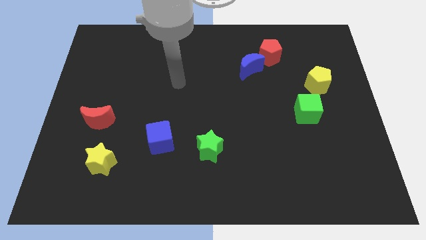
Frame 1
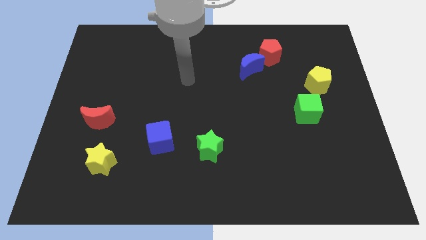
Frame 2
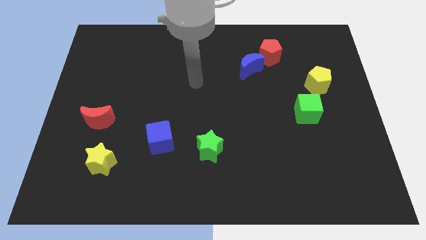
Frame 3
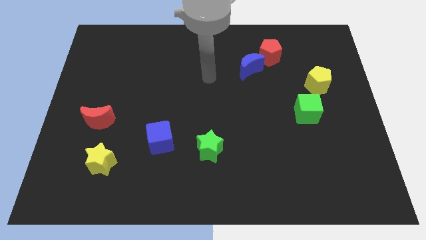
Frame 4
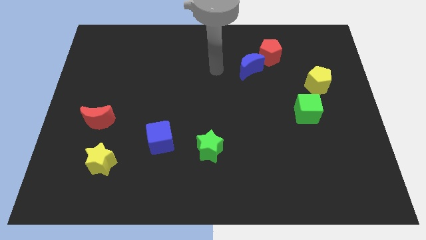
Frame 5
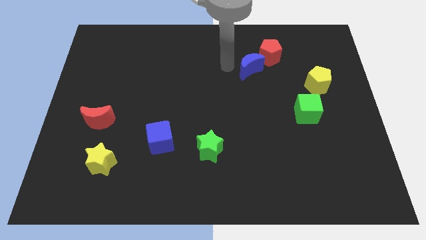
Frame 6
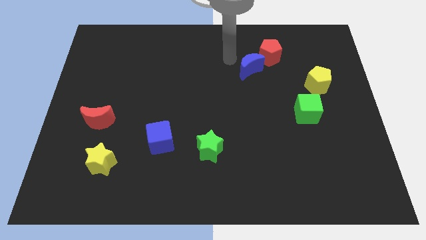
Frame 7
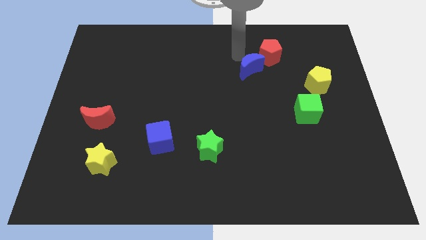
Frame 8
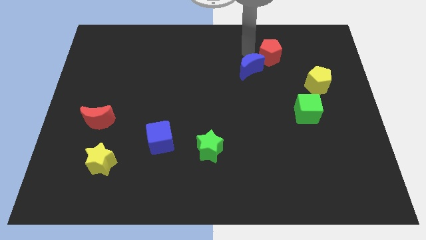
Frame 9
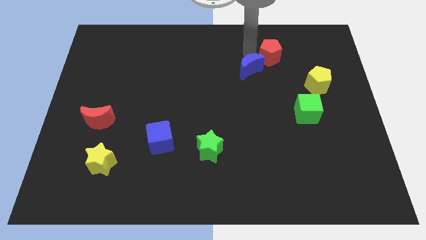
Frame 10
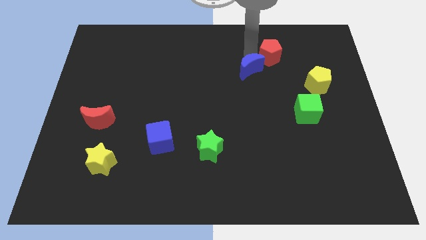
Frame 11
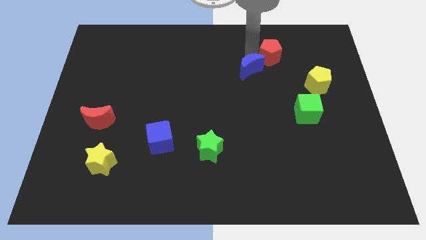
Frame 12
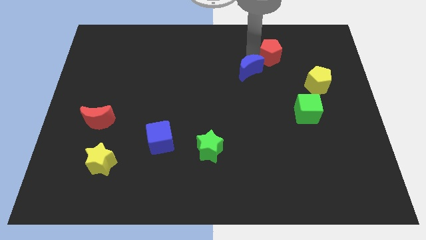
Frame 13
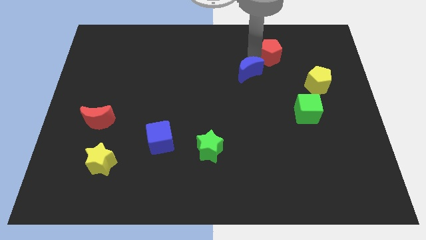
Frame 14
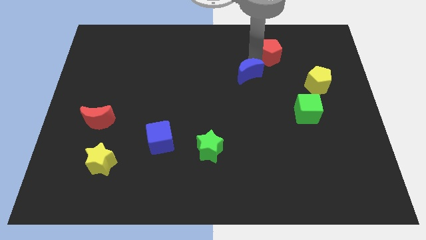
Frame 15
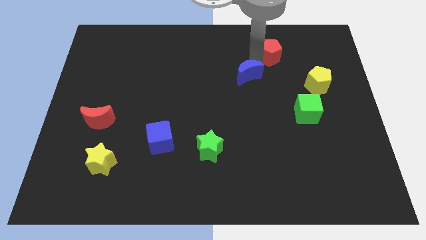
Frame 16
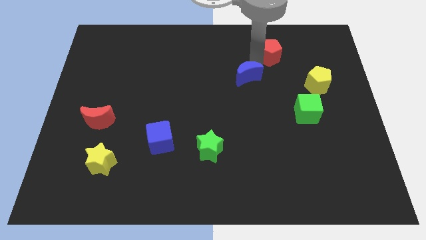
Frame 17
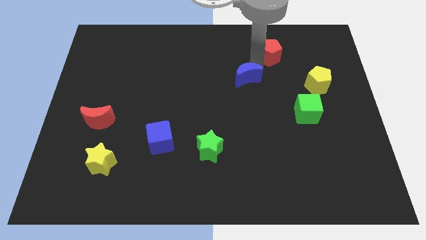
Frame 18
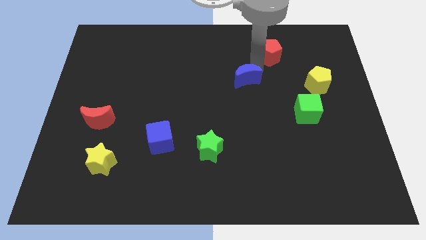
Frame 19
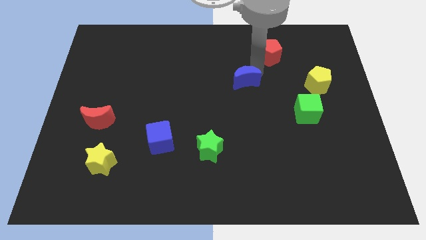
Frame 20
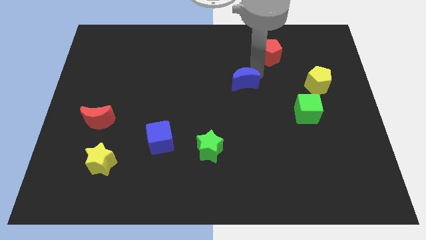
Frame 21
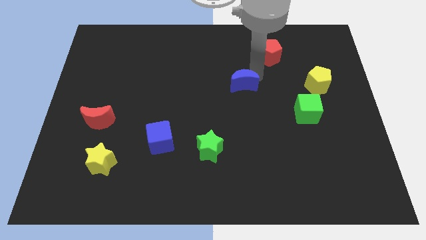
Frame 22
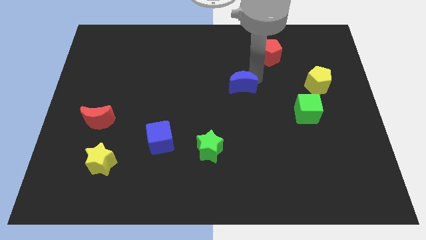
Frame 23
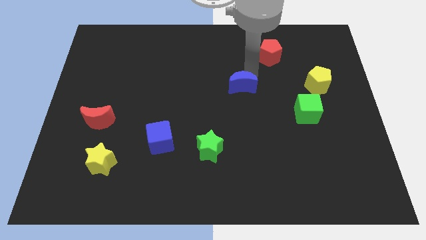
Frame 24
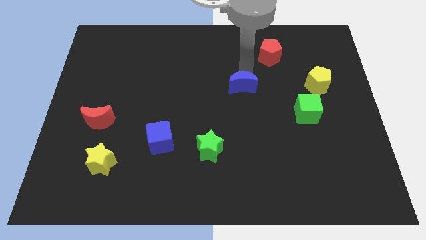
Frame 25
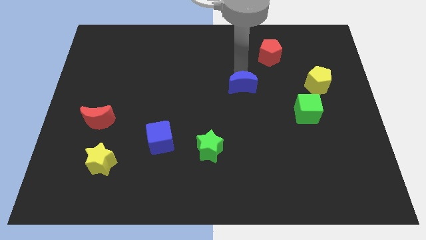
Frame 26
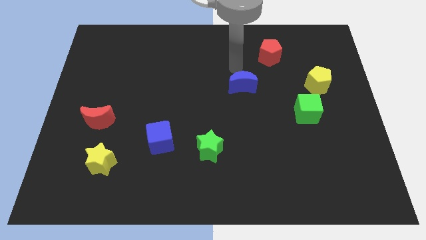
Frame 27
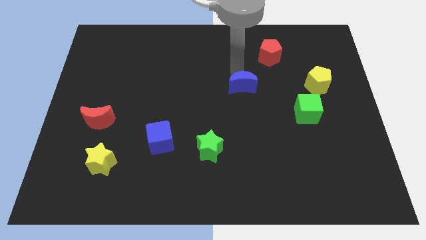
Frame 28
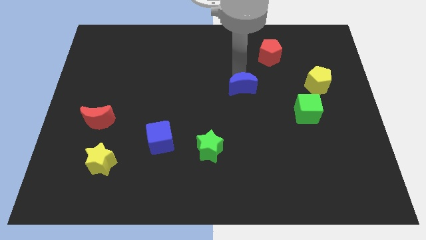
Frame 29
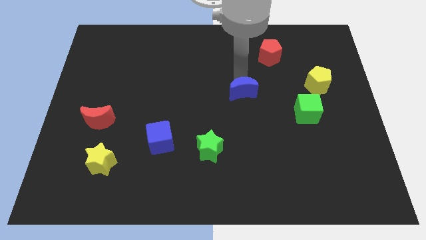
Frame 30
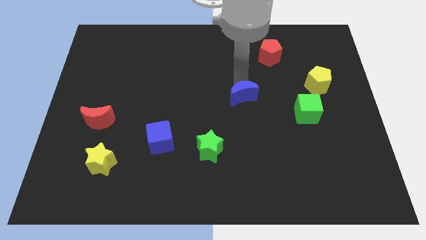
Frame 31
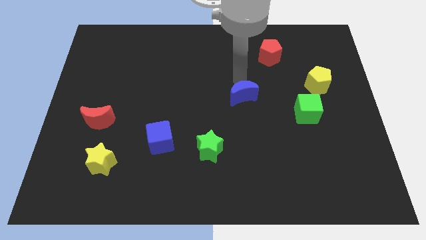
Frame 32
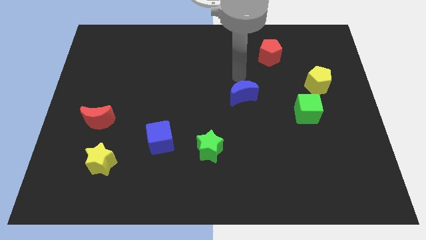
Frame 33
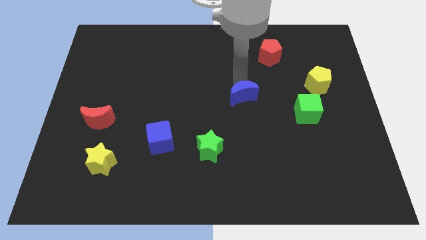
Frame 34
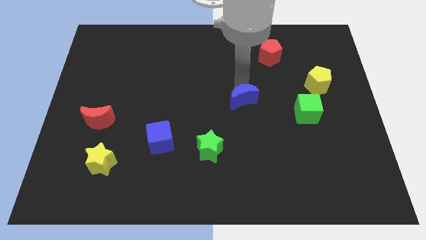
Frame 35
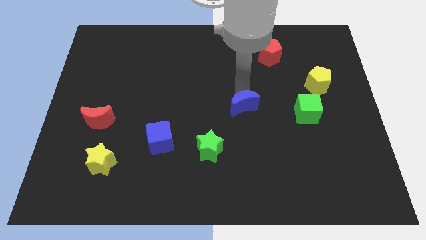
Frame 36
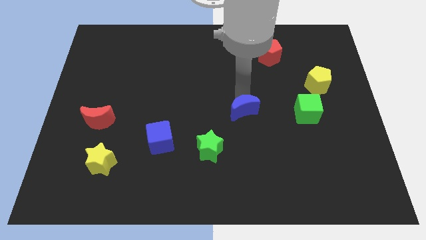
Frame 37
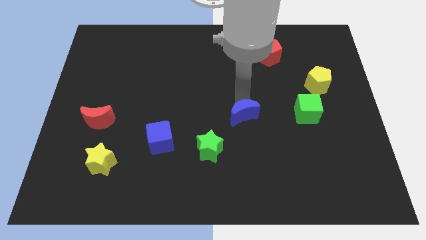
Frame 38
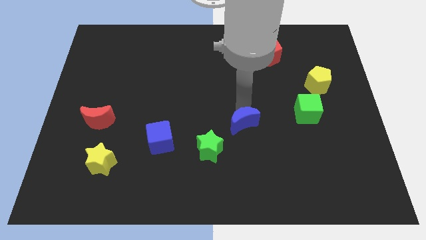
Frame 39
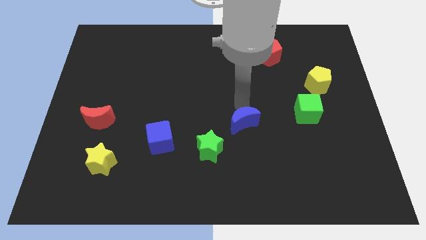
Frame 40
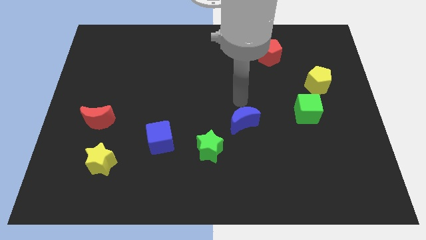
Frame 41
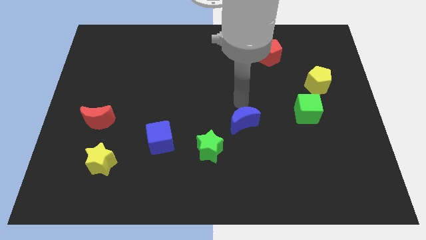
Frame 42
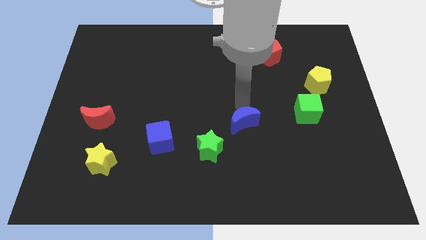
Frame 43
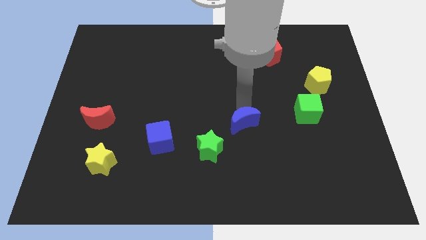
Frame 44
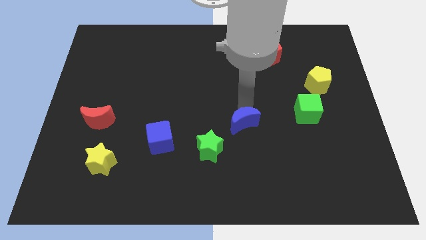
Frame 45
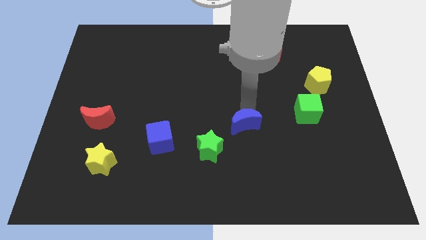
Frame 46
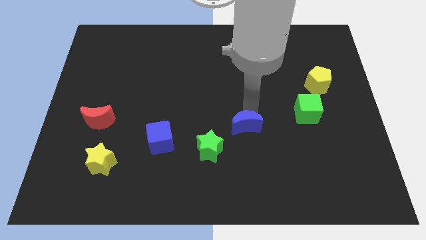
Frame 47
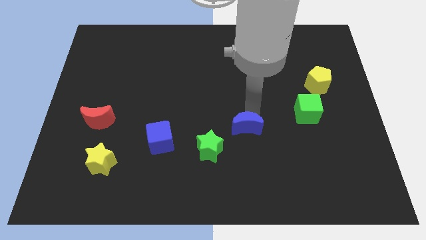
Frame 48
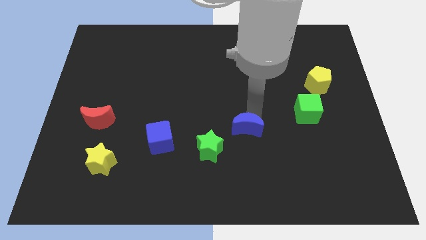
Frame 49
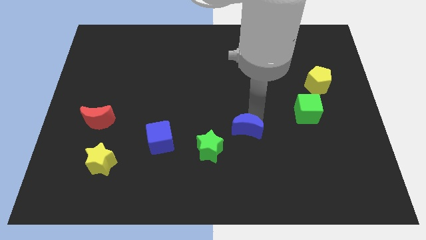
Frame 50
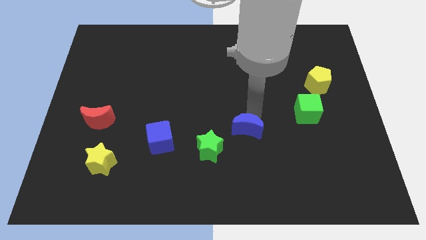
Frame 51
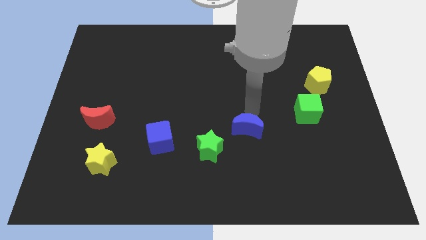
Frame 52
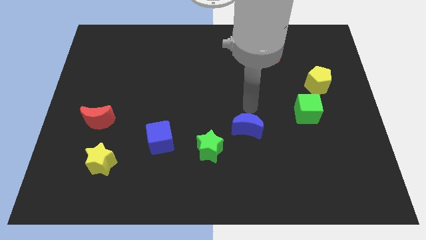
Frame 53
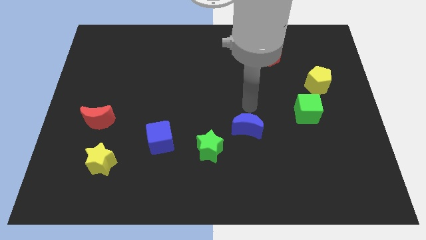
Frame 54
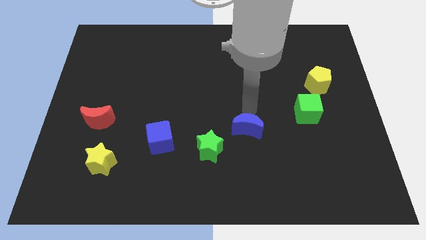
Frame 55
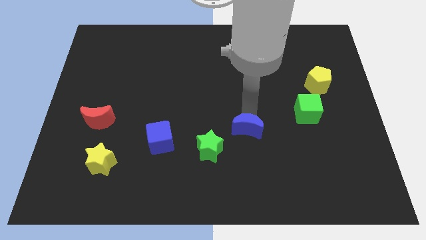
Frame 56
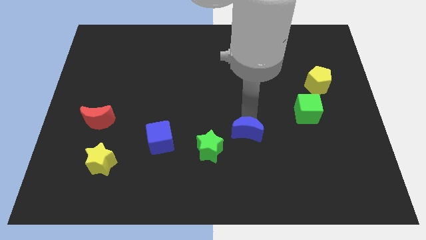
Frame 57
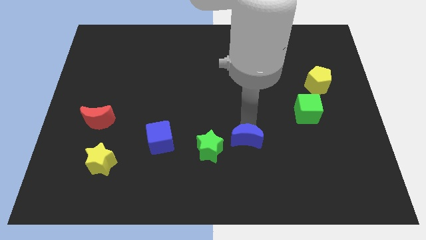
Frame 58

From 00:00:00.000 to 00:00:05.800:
move the blue moon down

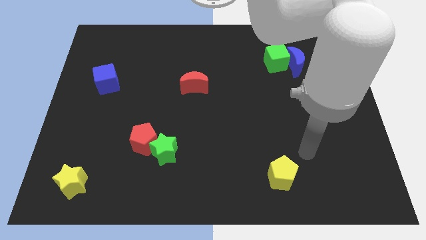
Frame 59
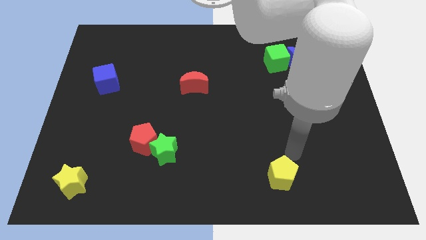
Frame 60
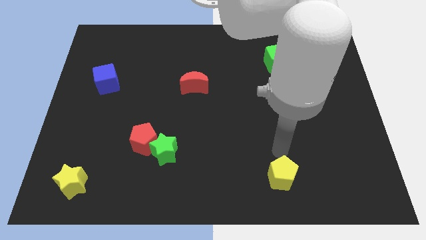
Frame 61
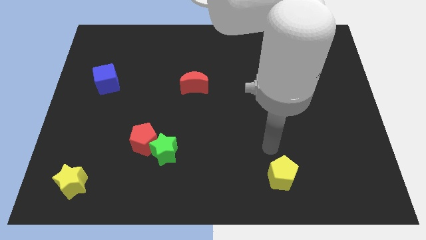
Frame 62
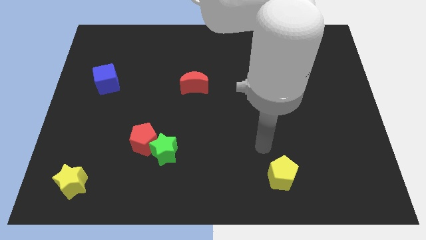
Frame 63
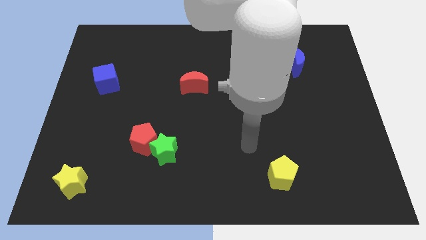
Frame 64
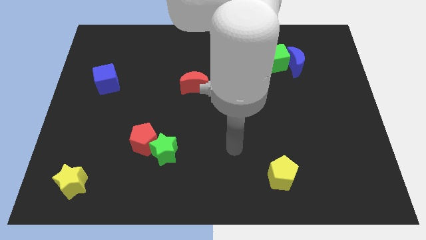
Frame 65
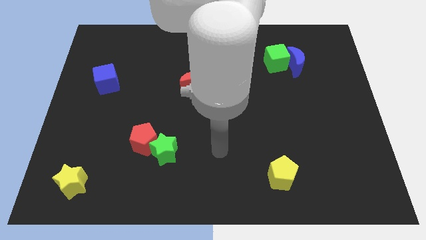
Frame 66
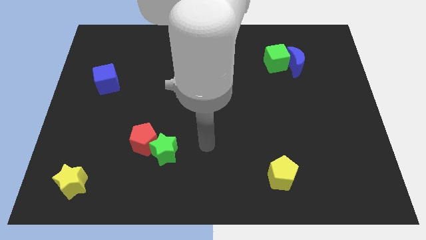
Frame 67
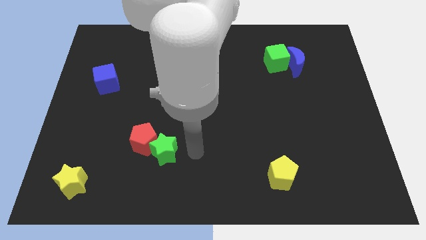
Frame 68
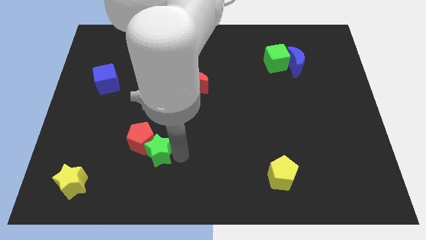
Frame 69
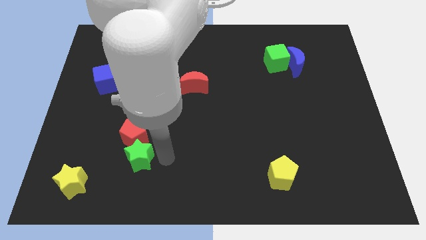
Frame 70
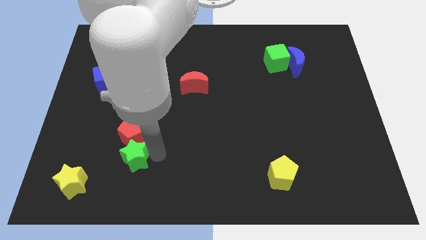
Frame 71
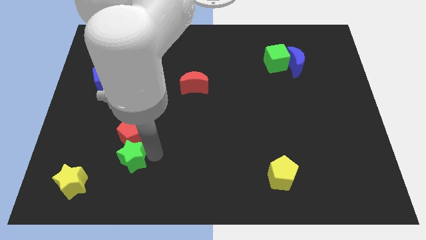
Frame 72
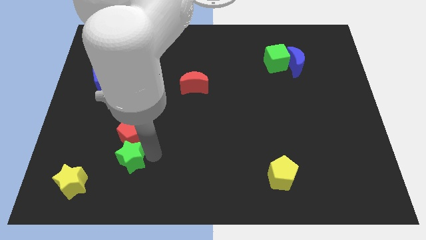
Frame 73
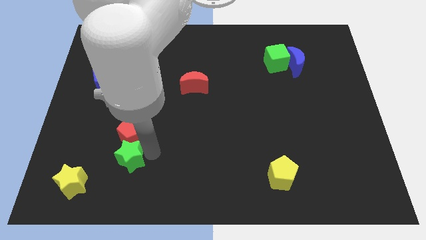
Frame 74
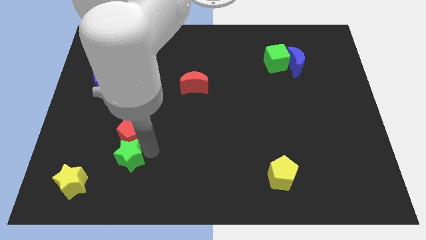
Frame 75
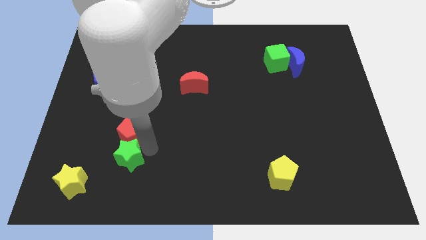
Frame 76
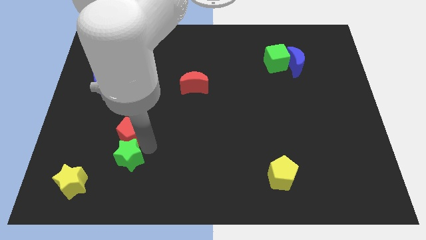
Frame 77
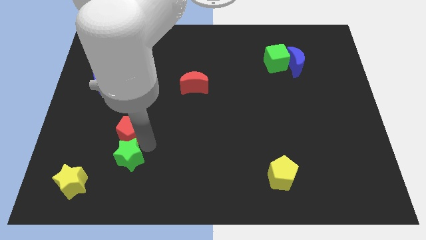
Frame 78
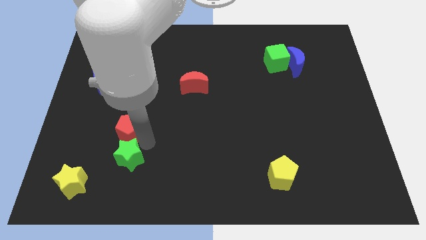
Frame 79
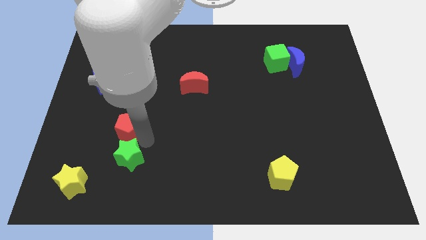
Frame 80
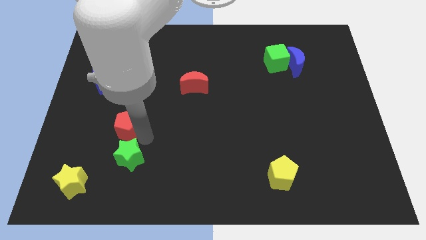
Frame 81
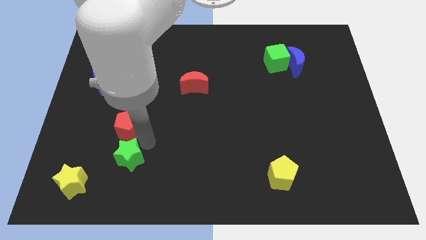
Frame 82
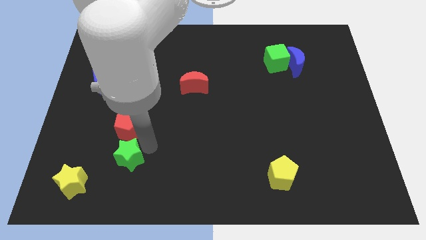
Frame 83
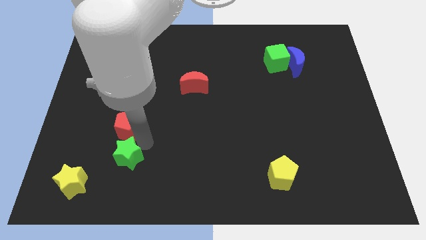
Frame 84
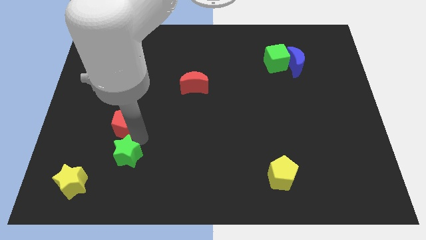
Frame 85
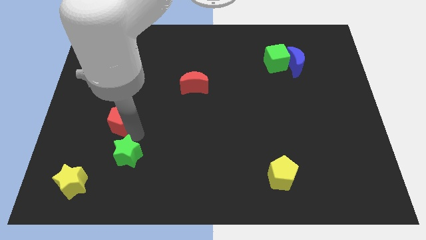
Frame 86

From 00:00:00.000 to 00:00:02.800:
slightly push the red pentagon up and to the left
